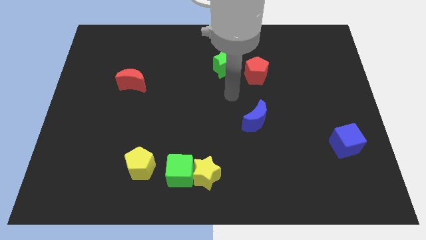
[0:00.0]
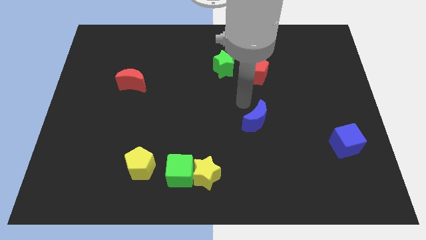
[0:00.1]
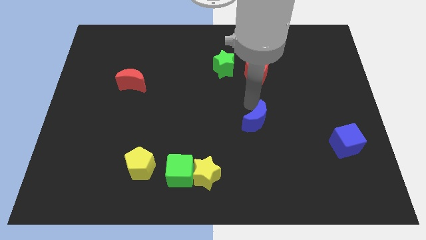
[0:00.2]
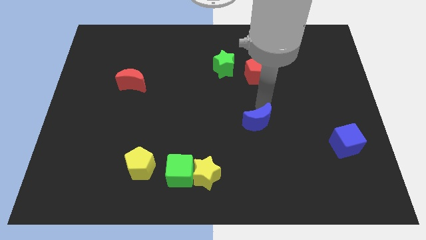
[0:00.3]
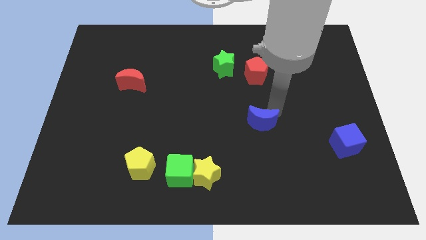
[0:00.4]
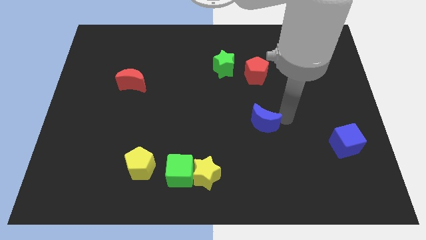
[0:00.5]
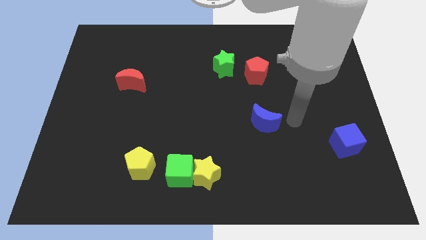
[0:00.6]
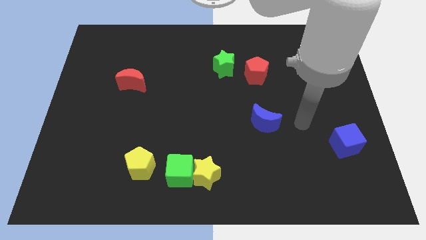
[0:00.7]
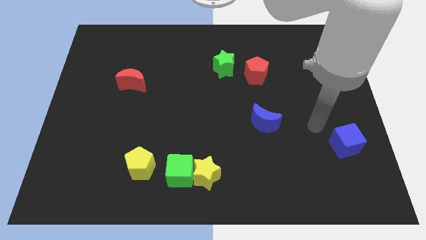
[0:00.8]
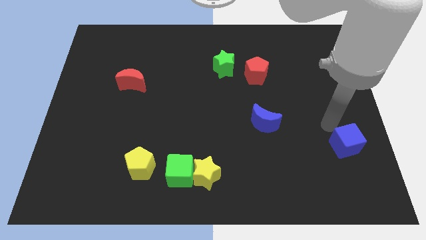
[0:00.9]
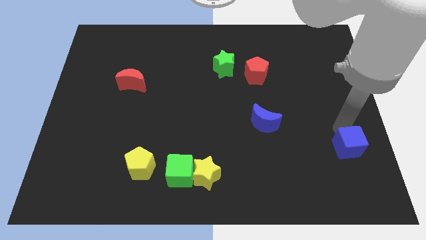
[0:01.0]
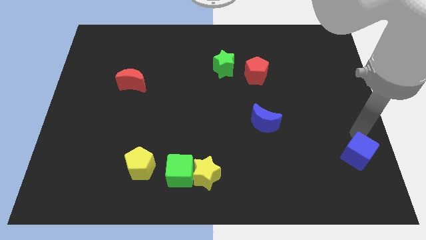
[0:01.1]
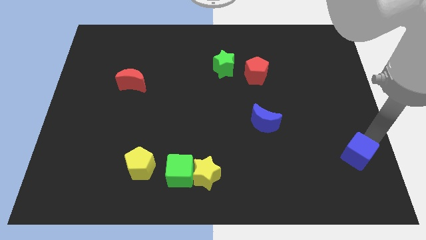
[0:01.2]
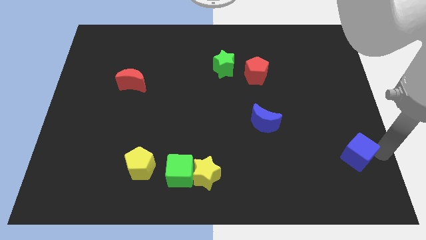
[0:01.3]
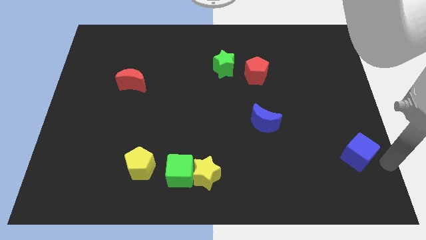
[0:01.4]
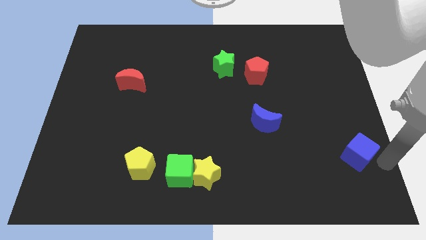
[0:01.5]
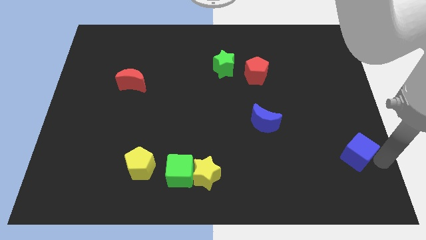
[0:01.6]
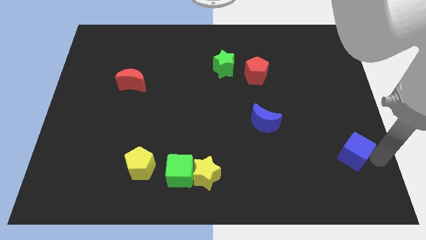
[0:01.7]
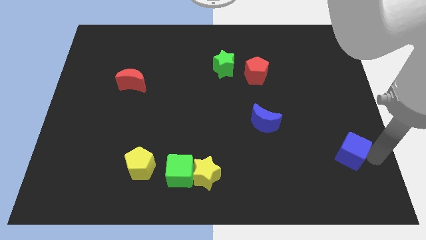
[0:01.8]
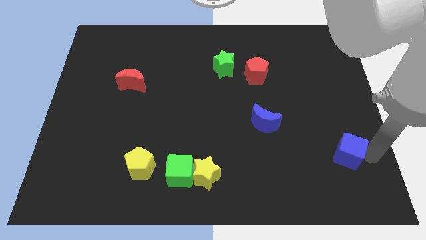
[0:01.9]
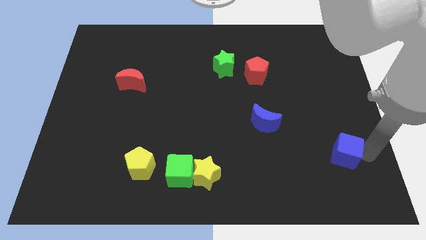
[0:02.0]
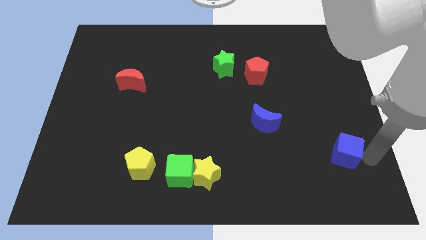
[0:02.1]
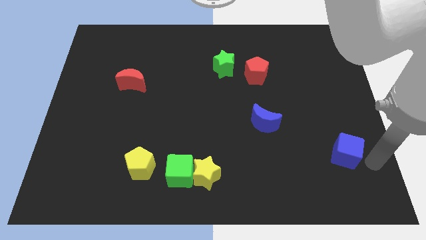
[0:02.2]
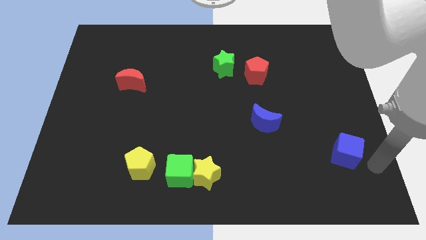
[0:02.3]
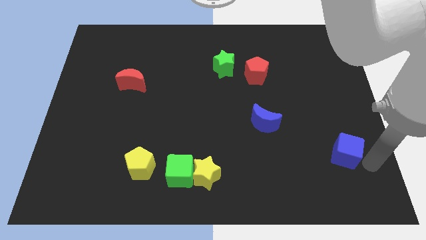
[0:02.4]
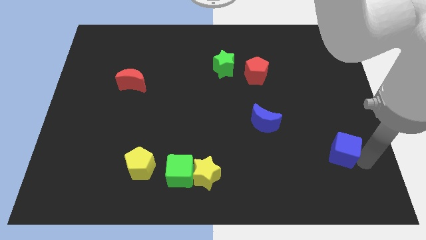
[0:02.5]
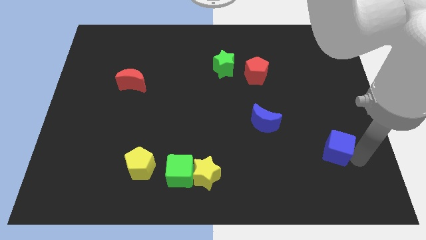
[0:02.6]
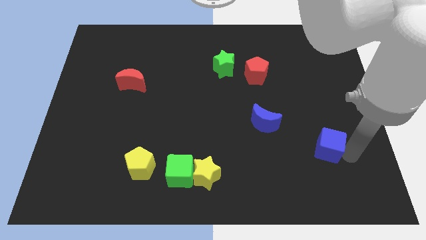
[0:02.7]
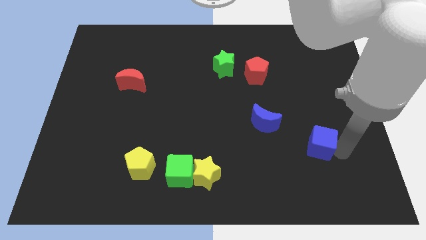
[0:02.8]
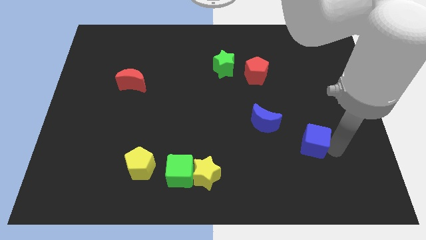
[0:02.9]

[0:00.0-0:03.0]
push the blue cube a bit to the left

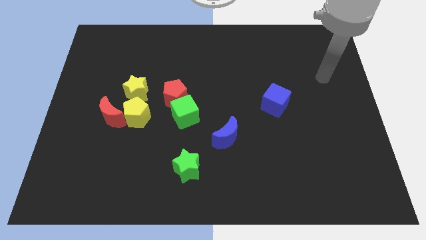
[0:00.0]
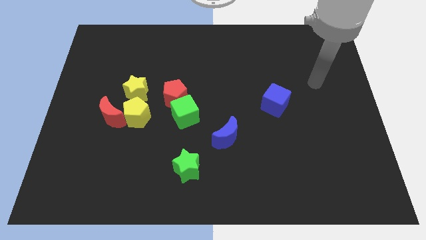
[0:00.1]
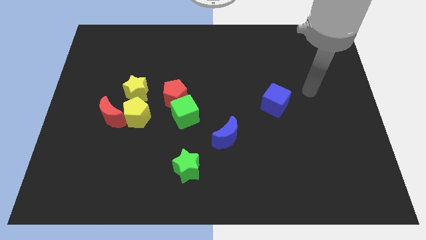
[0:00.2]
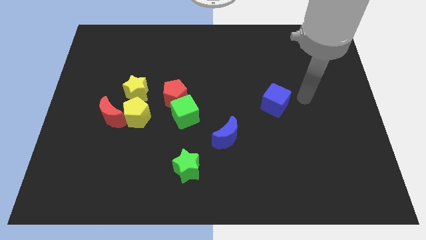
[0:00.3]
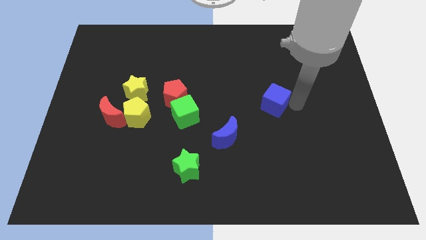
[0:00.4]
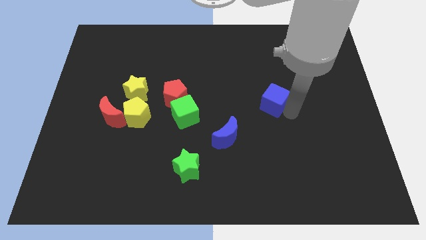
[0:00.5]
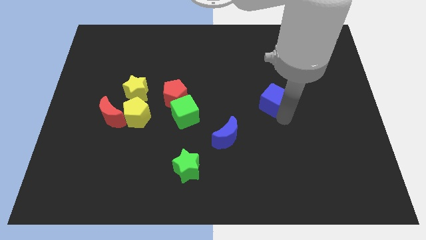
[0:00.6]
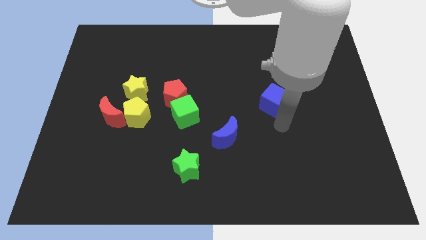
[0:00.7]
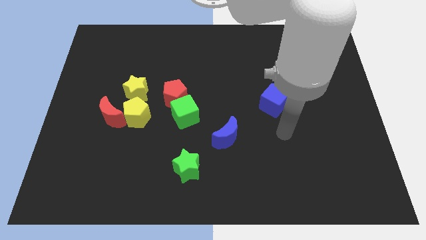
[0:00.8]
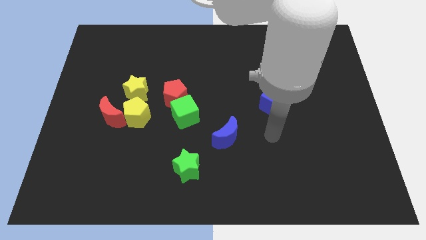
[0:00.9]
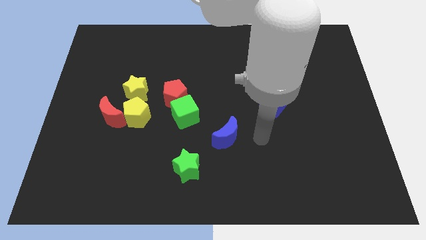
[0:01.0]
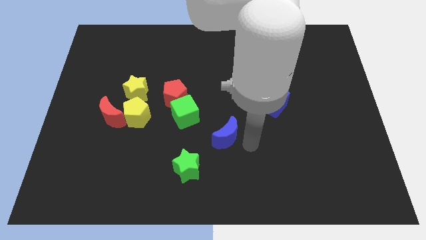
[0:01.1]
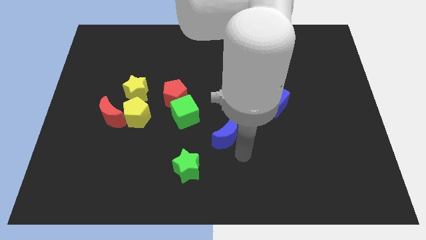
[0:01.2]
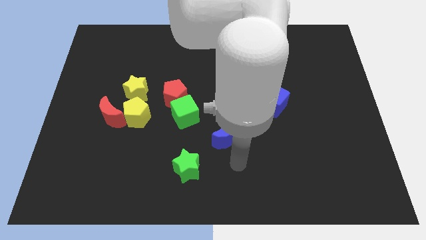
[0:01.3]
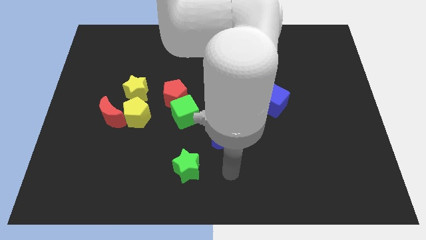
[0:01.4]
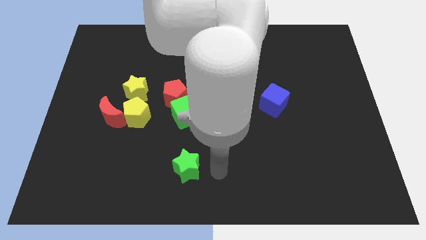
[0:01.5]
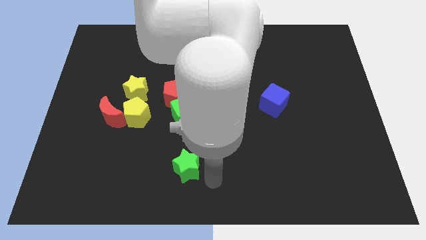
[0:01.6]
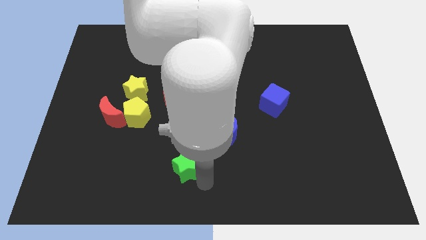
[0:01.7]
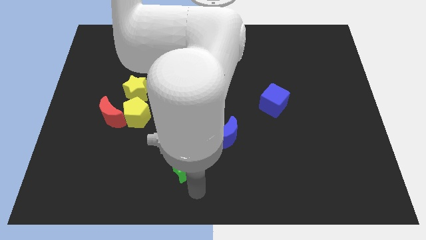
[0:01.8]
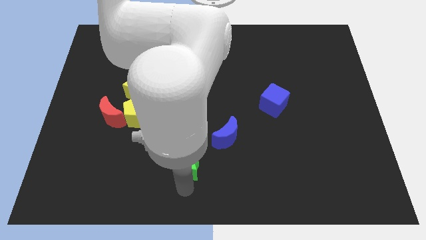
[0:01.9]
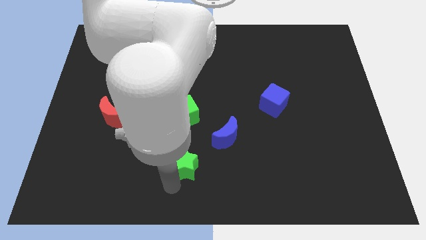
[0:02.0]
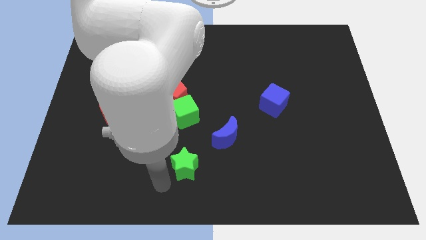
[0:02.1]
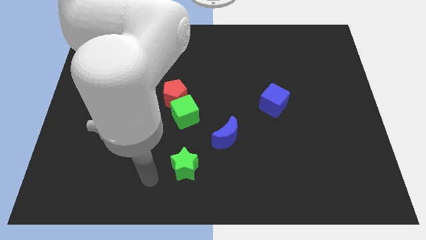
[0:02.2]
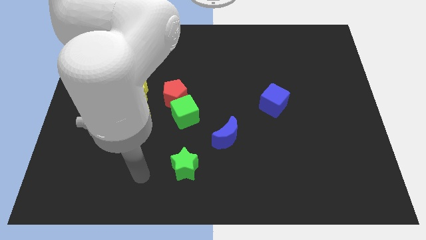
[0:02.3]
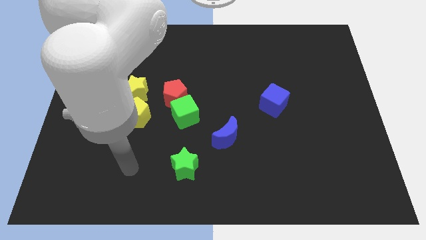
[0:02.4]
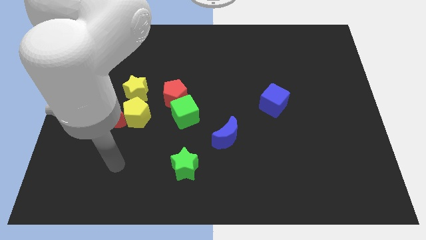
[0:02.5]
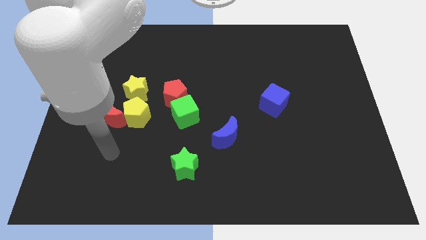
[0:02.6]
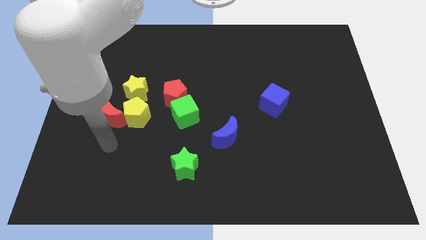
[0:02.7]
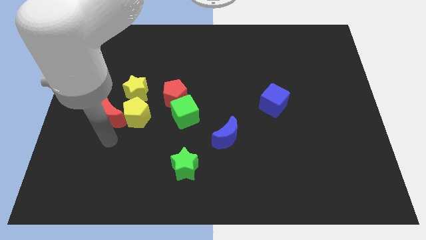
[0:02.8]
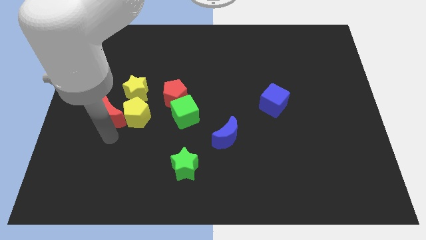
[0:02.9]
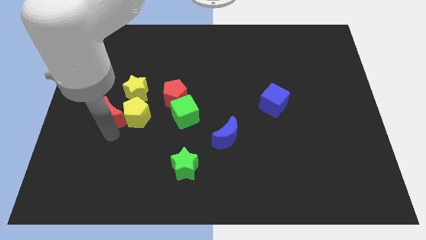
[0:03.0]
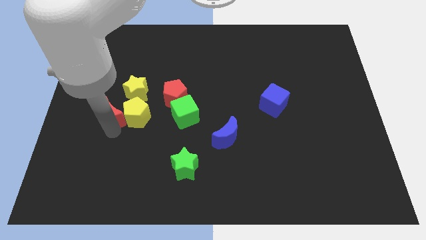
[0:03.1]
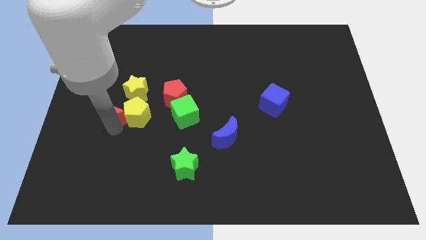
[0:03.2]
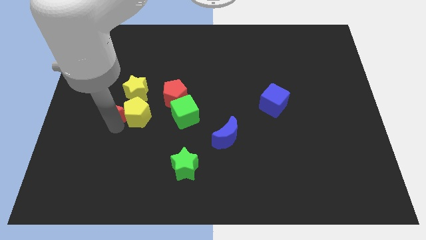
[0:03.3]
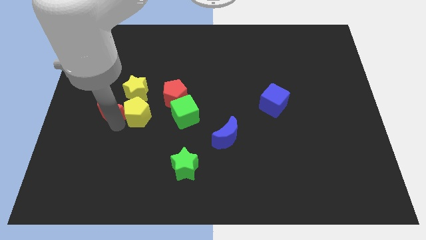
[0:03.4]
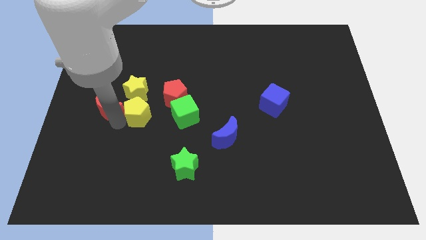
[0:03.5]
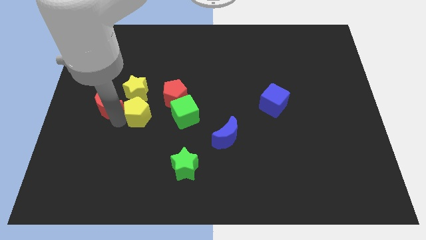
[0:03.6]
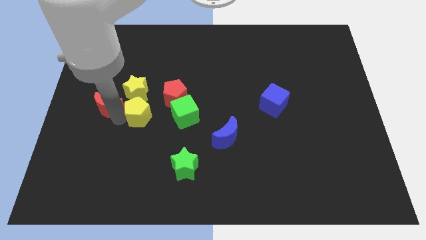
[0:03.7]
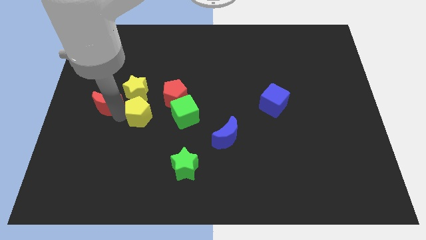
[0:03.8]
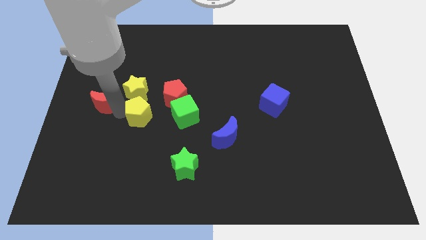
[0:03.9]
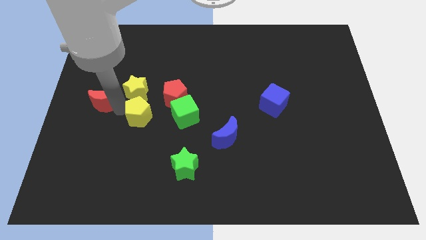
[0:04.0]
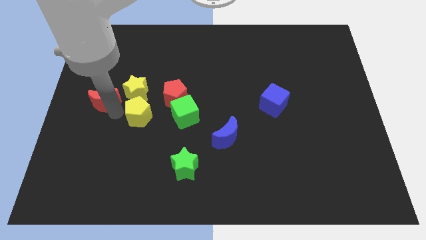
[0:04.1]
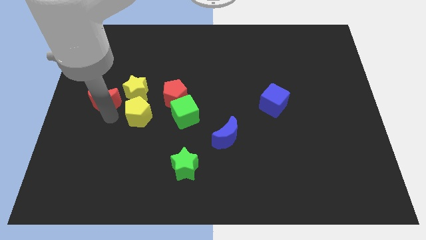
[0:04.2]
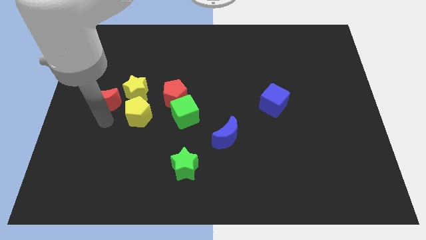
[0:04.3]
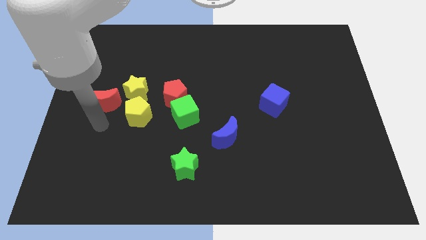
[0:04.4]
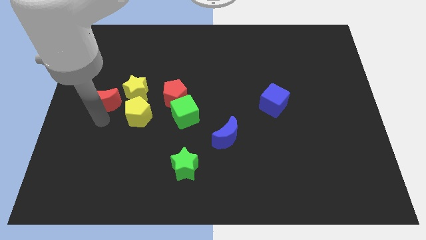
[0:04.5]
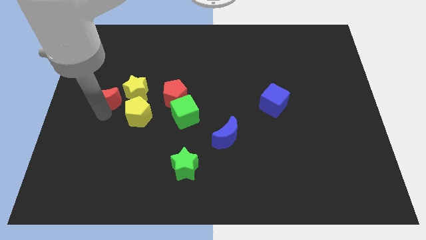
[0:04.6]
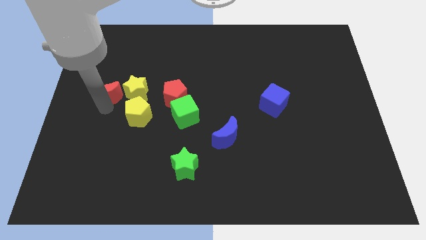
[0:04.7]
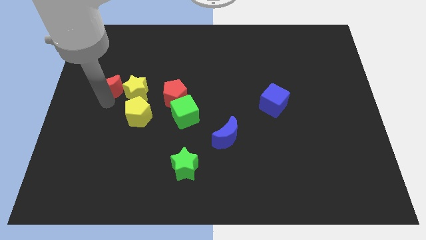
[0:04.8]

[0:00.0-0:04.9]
move the red moon upwards a little bit
